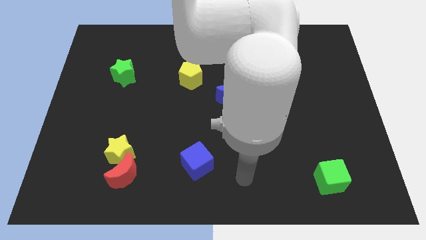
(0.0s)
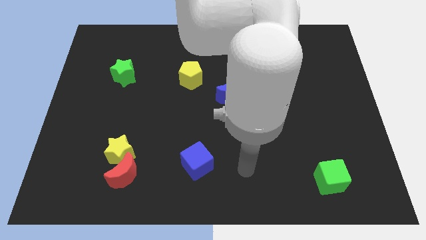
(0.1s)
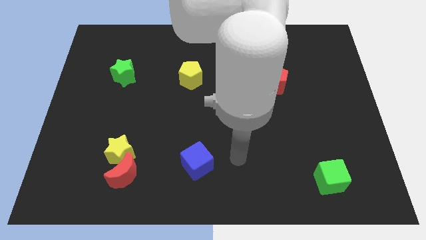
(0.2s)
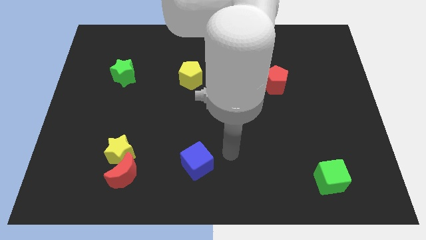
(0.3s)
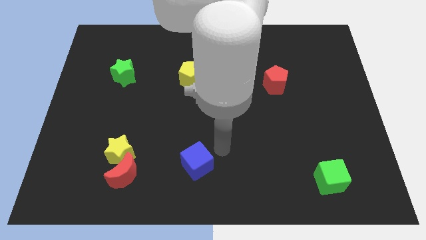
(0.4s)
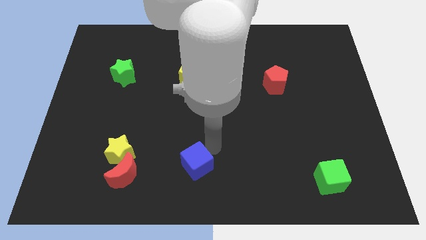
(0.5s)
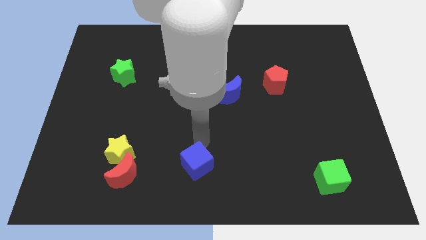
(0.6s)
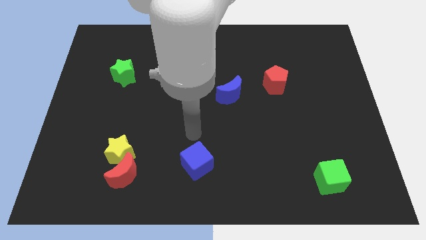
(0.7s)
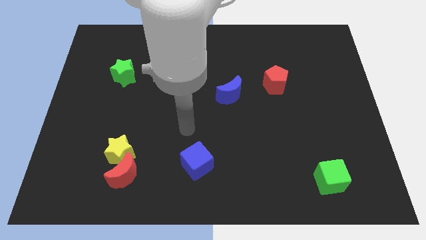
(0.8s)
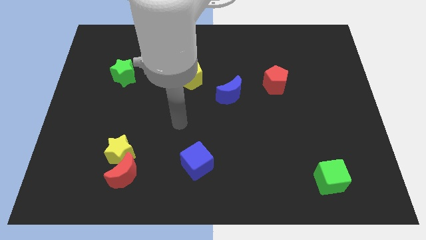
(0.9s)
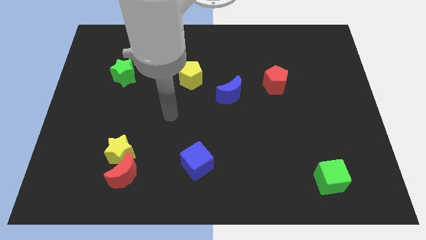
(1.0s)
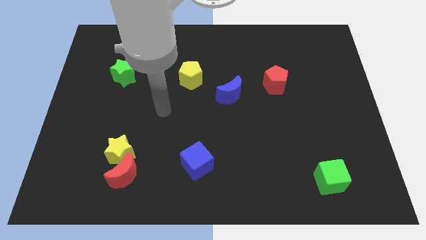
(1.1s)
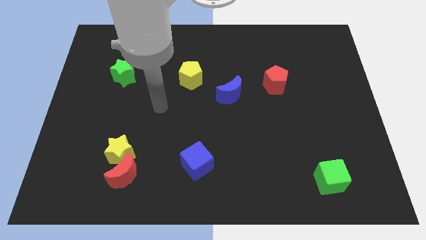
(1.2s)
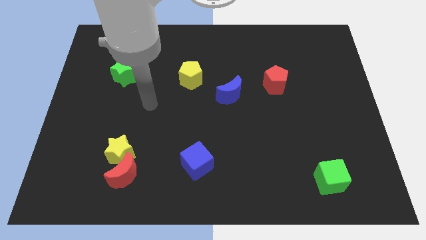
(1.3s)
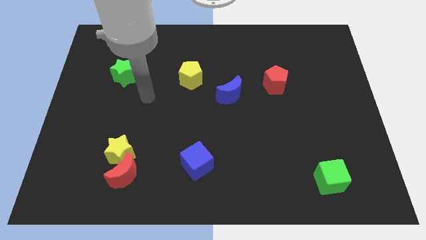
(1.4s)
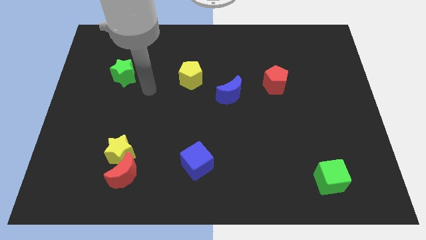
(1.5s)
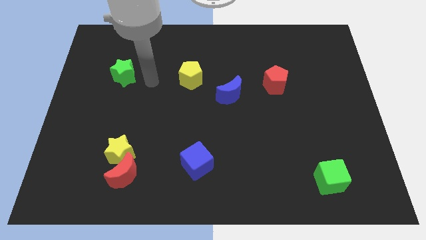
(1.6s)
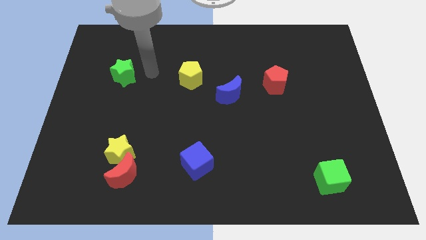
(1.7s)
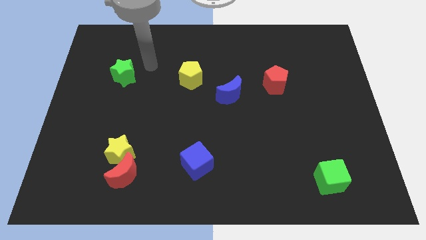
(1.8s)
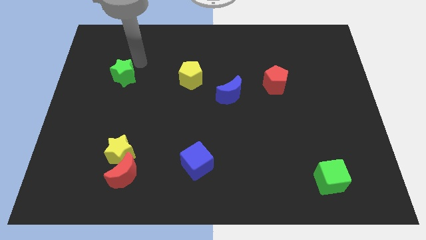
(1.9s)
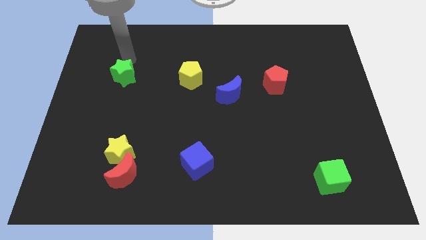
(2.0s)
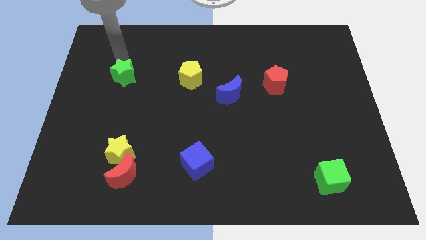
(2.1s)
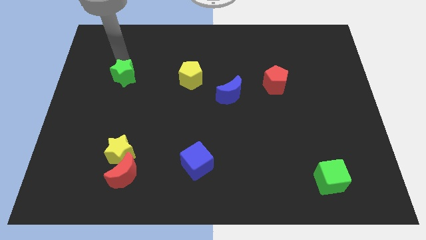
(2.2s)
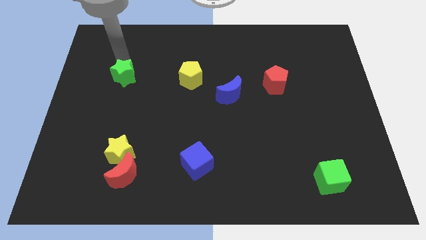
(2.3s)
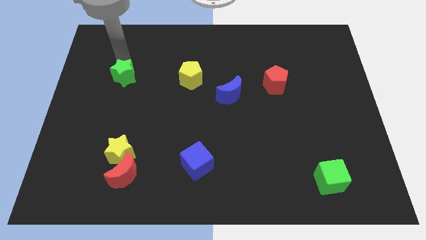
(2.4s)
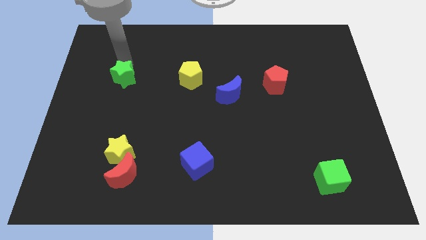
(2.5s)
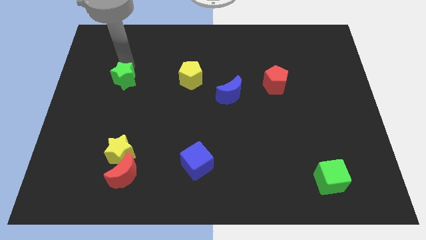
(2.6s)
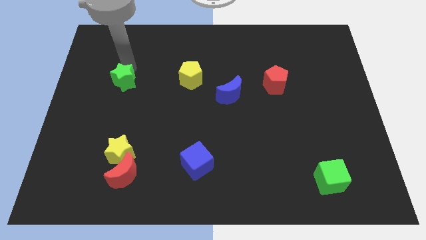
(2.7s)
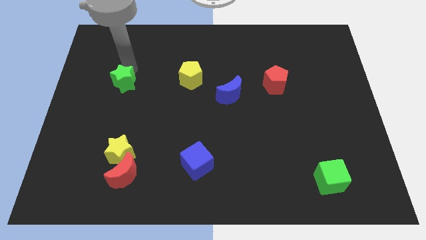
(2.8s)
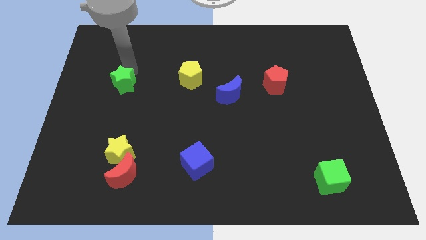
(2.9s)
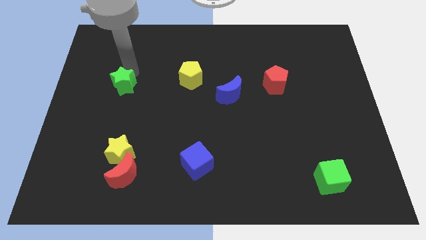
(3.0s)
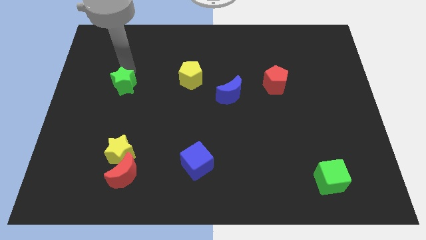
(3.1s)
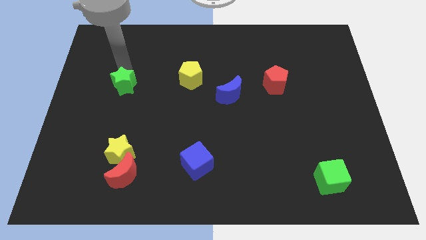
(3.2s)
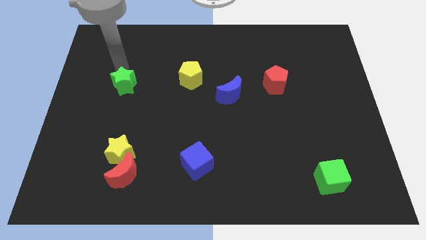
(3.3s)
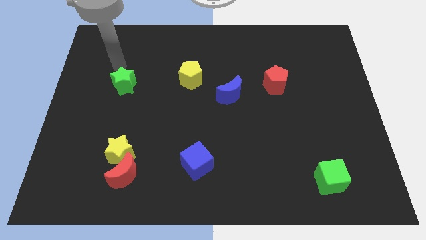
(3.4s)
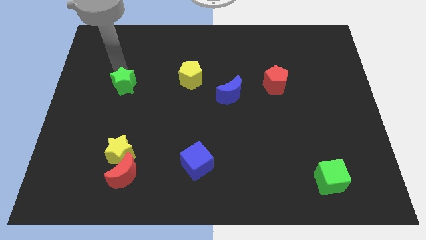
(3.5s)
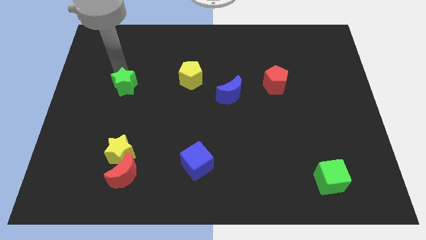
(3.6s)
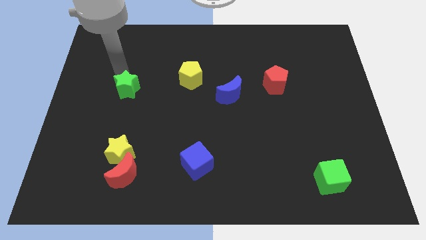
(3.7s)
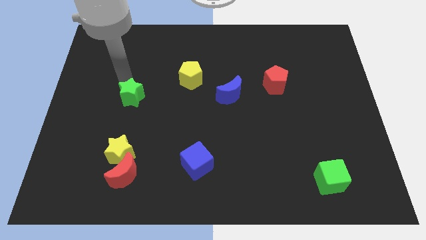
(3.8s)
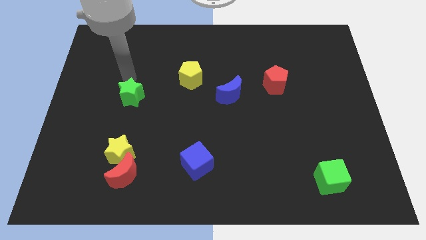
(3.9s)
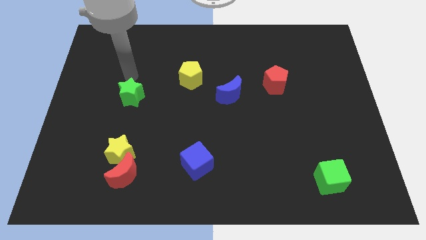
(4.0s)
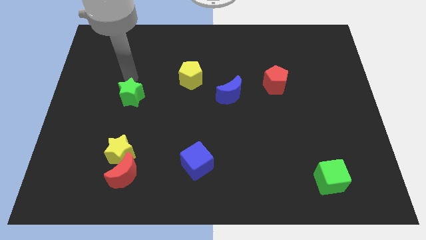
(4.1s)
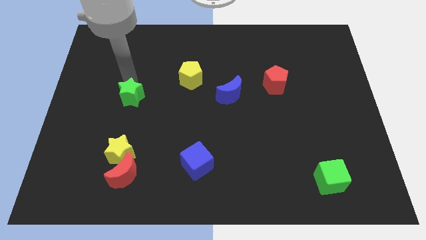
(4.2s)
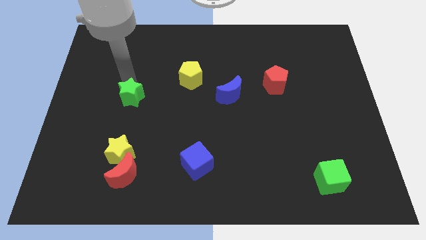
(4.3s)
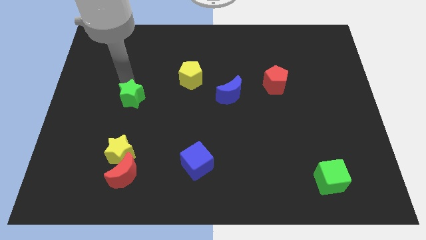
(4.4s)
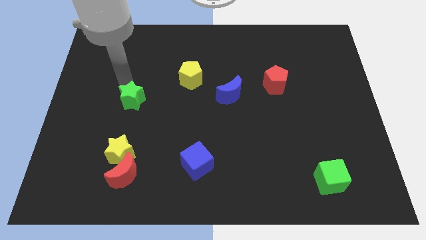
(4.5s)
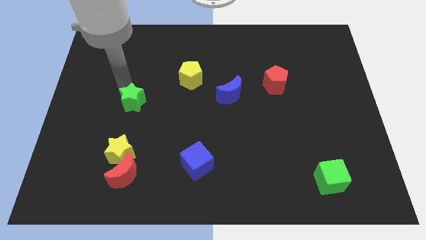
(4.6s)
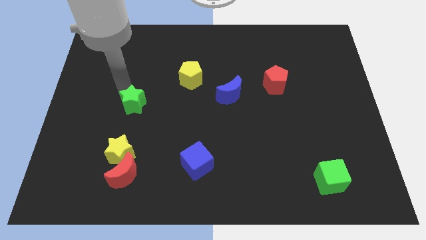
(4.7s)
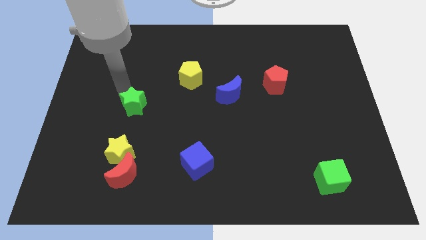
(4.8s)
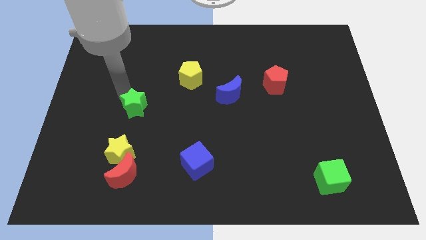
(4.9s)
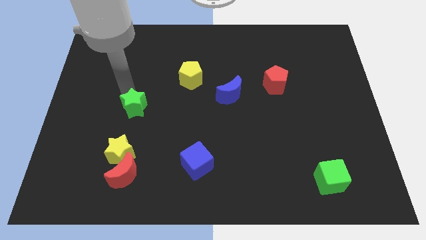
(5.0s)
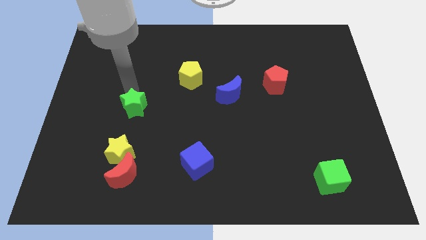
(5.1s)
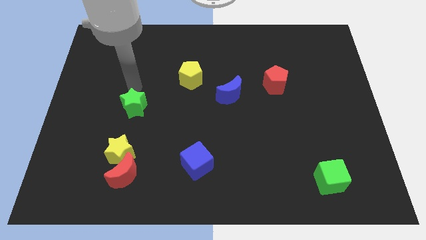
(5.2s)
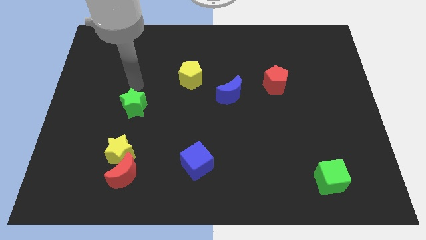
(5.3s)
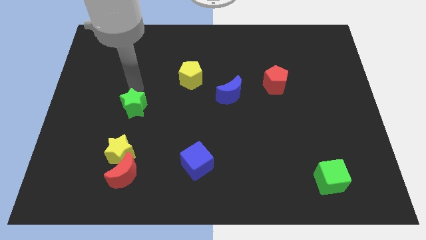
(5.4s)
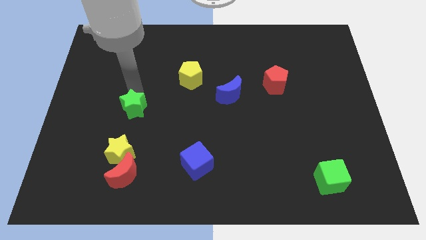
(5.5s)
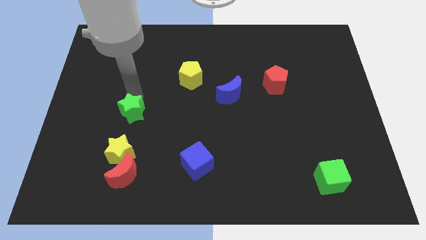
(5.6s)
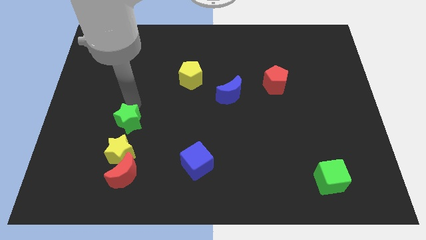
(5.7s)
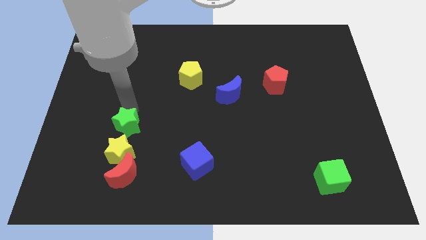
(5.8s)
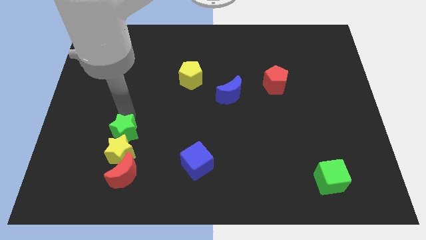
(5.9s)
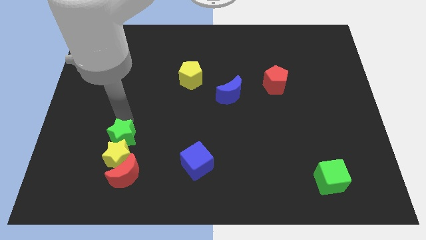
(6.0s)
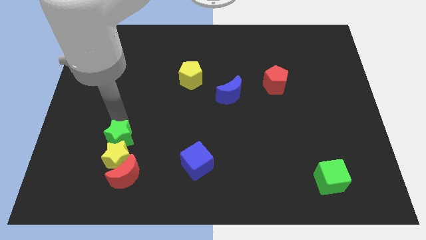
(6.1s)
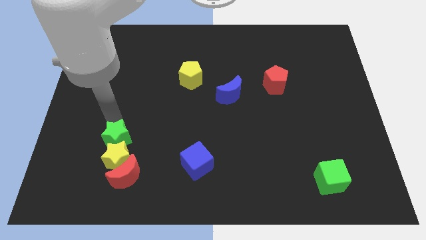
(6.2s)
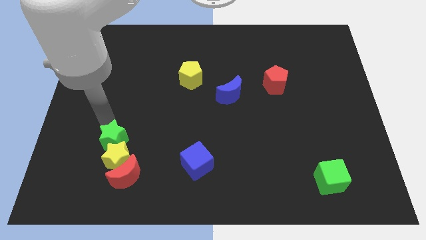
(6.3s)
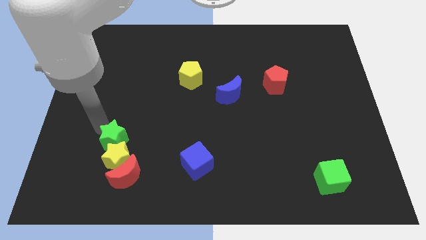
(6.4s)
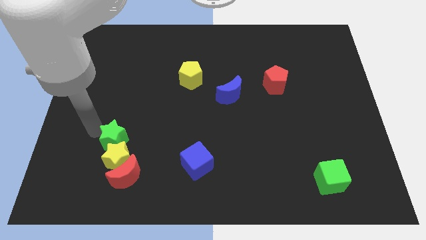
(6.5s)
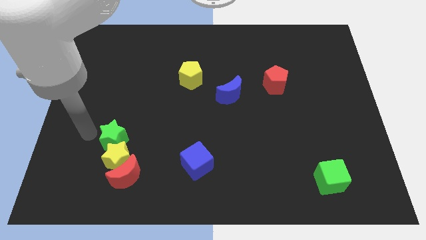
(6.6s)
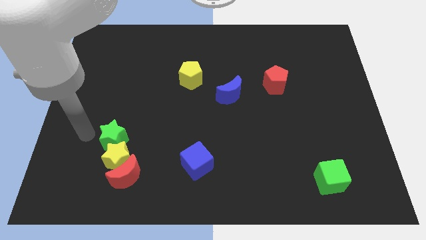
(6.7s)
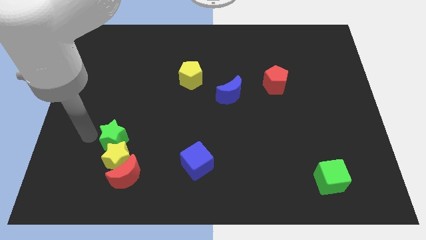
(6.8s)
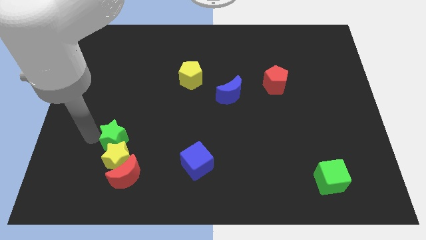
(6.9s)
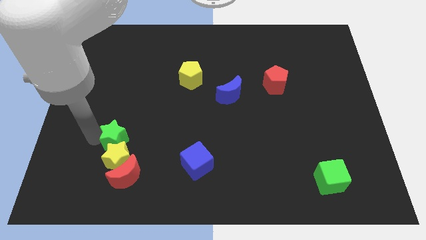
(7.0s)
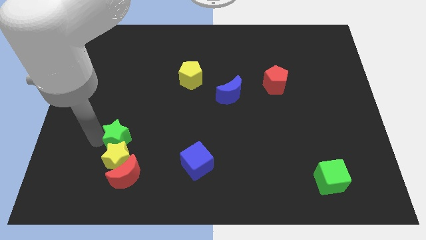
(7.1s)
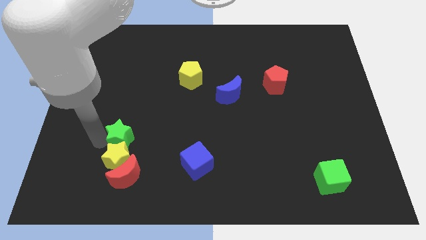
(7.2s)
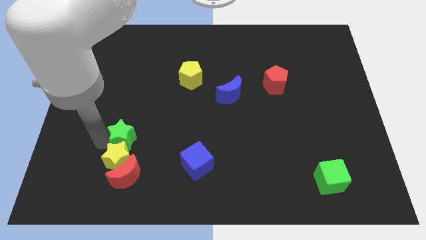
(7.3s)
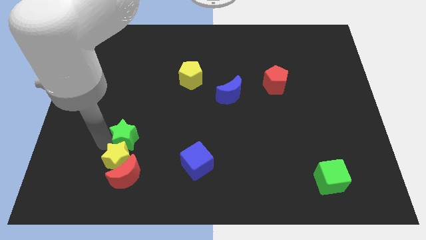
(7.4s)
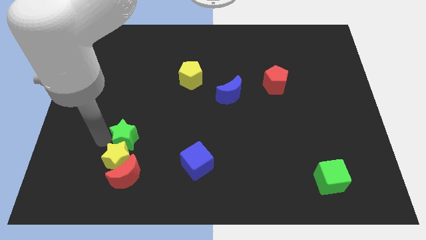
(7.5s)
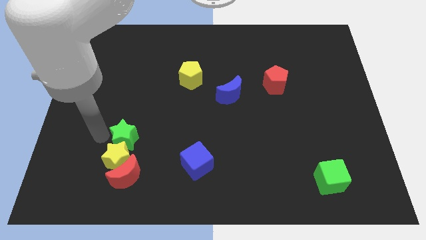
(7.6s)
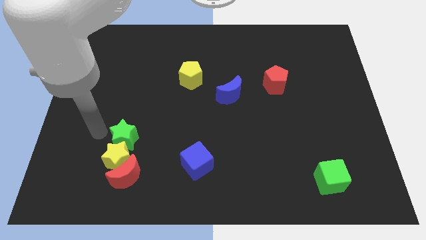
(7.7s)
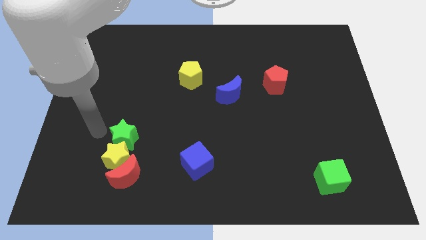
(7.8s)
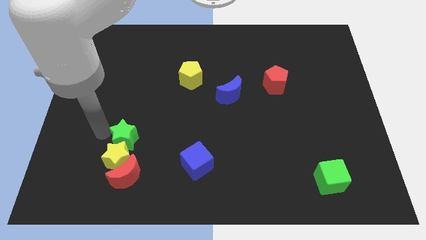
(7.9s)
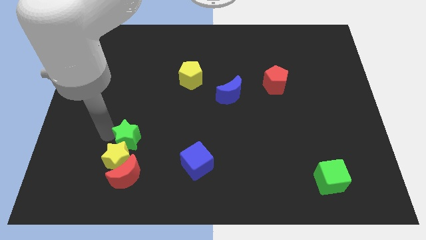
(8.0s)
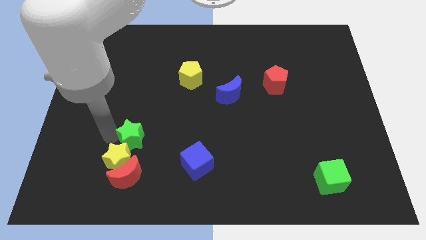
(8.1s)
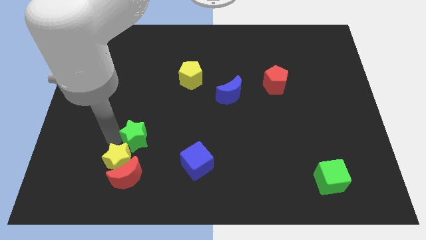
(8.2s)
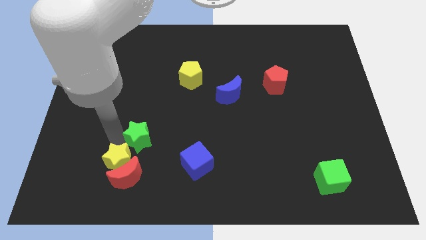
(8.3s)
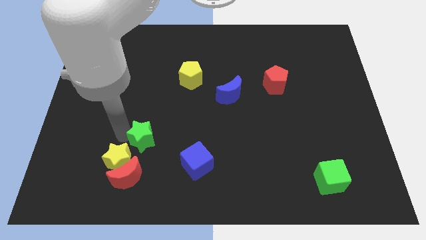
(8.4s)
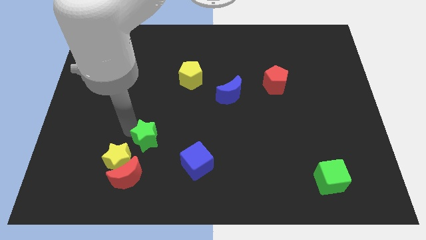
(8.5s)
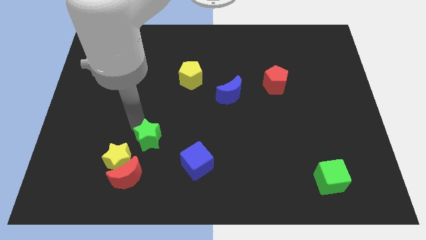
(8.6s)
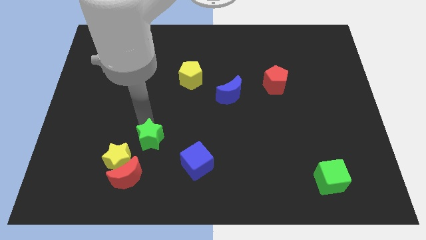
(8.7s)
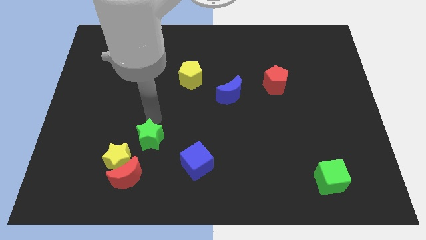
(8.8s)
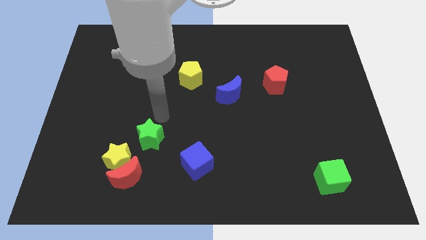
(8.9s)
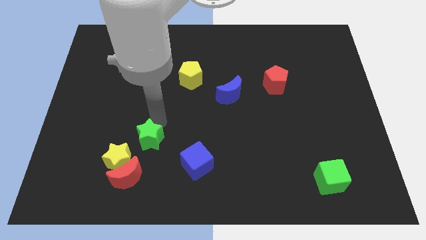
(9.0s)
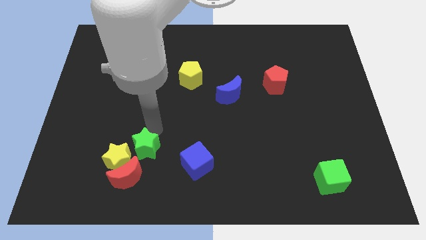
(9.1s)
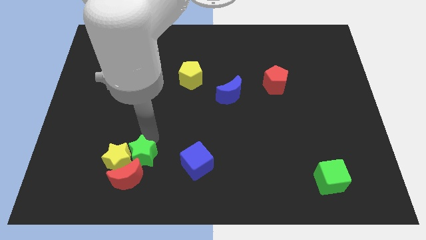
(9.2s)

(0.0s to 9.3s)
push the green star close to the red moon
